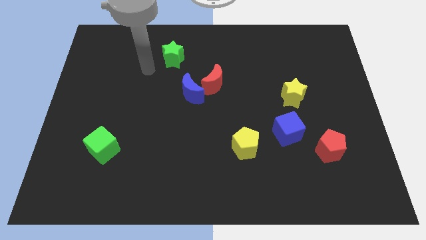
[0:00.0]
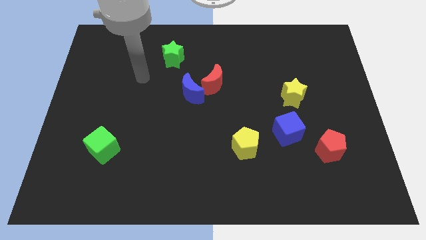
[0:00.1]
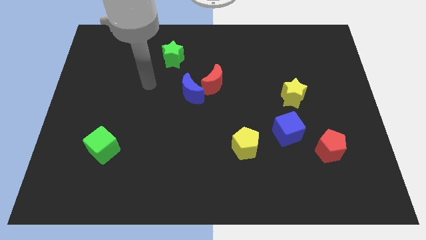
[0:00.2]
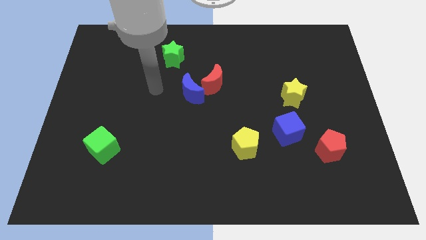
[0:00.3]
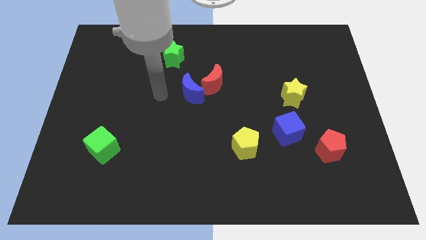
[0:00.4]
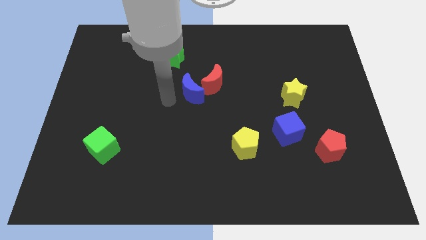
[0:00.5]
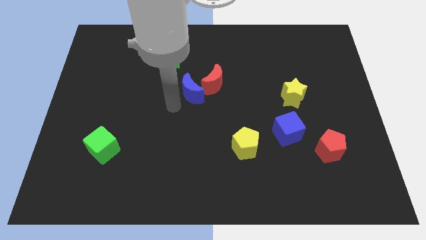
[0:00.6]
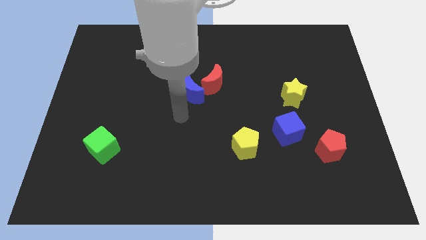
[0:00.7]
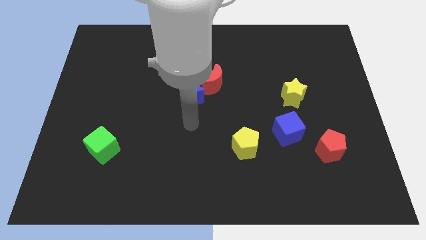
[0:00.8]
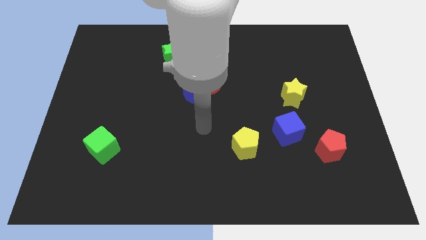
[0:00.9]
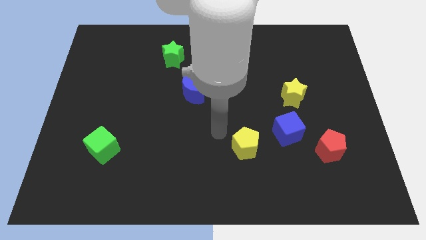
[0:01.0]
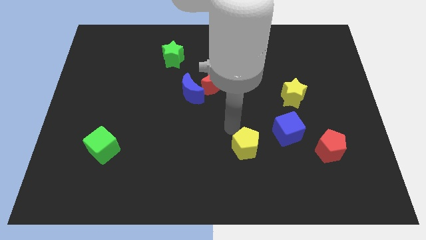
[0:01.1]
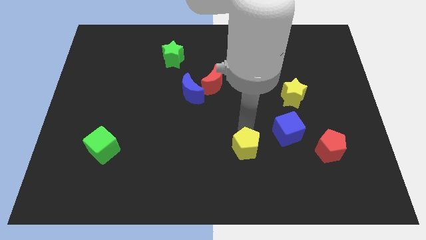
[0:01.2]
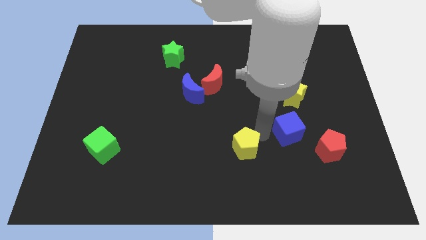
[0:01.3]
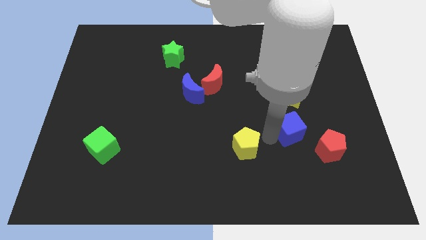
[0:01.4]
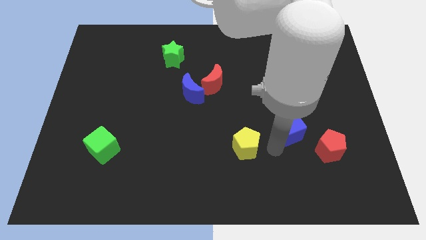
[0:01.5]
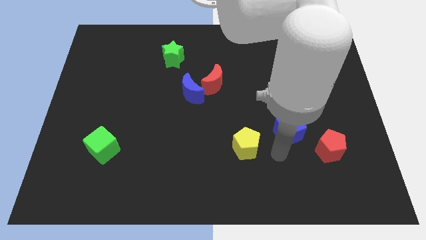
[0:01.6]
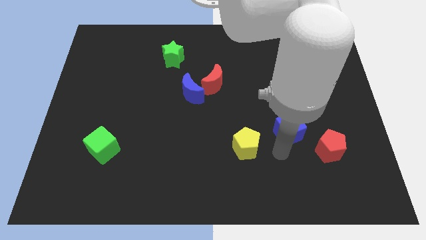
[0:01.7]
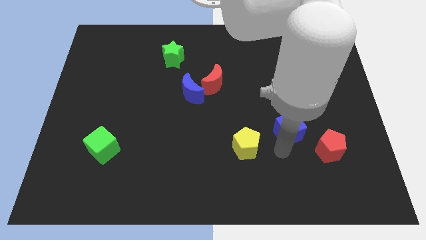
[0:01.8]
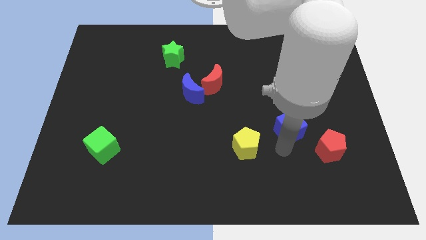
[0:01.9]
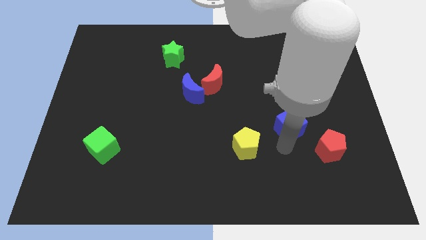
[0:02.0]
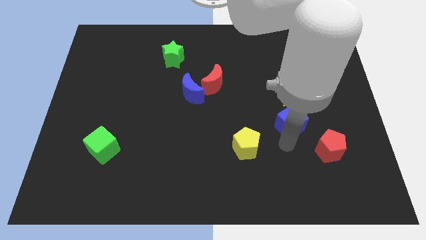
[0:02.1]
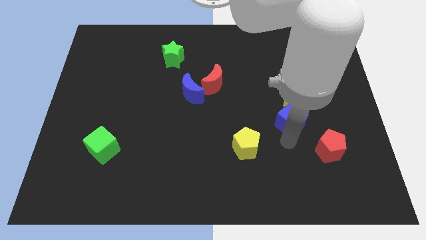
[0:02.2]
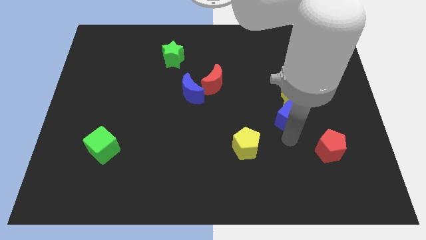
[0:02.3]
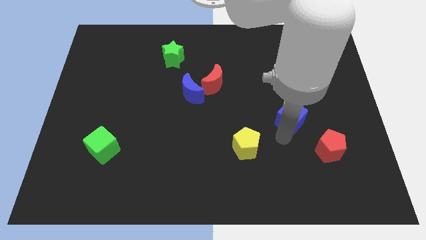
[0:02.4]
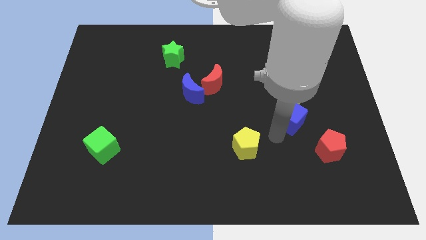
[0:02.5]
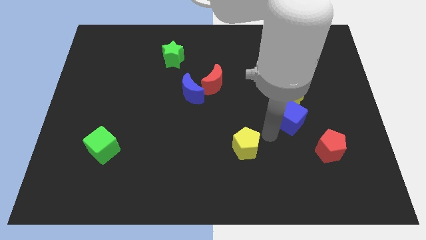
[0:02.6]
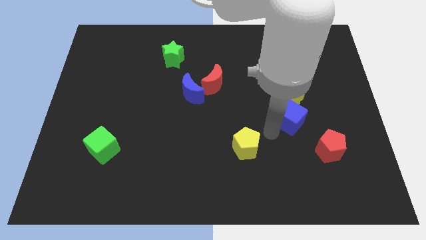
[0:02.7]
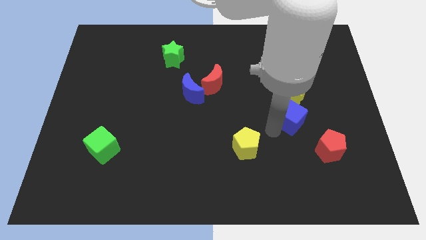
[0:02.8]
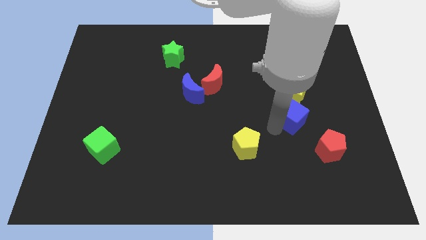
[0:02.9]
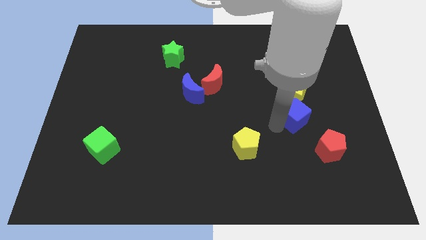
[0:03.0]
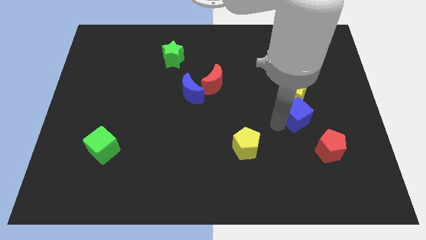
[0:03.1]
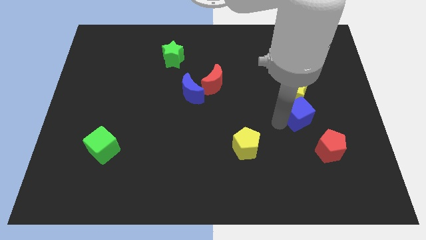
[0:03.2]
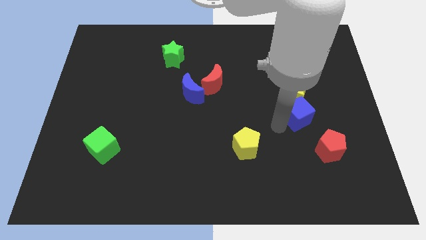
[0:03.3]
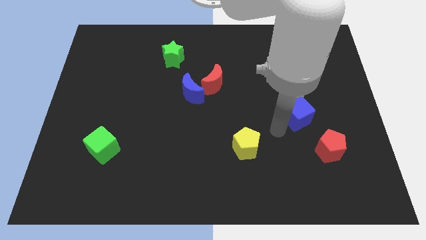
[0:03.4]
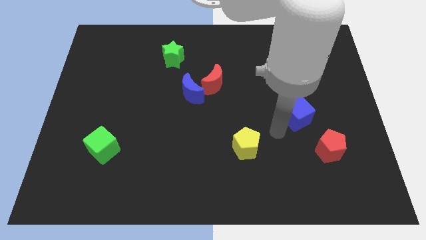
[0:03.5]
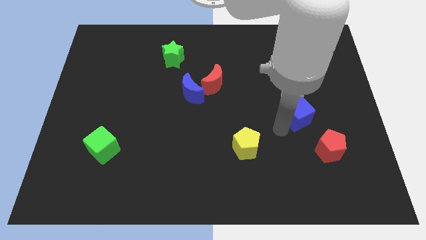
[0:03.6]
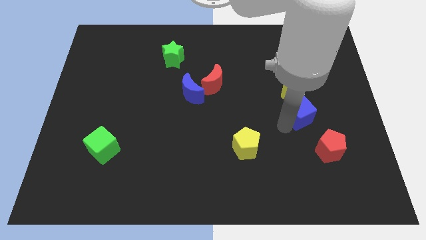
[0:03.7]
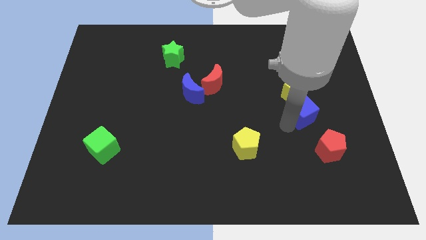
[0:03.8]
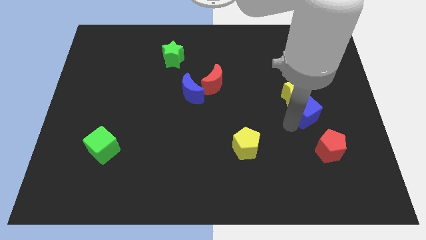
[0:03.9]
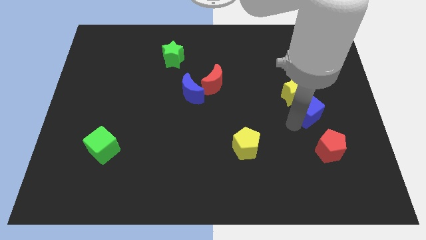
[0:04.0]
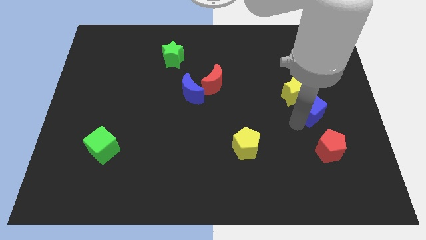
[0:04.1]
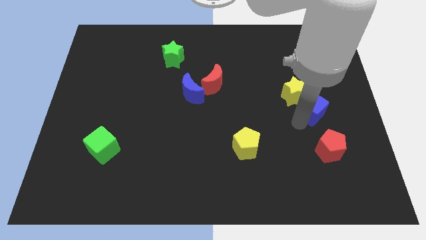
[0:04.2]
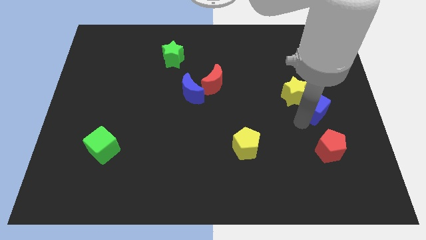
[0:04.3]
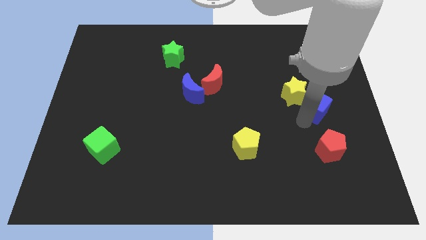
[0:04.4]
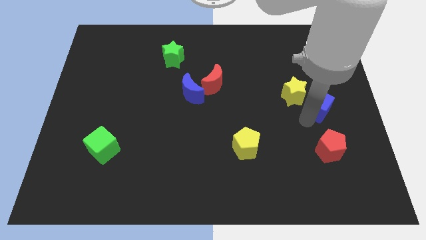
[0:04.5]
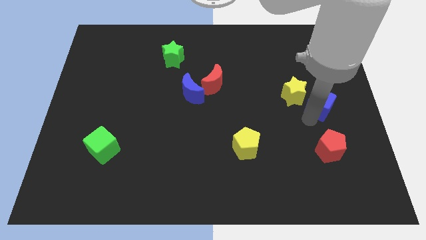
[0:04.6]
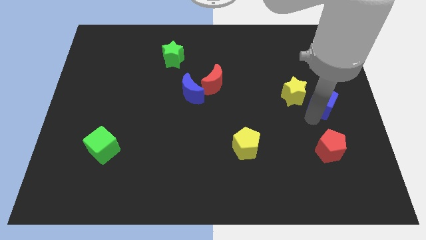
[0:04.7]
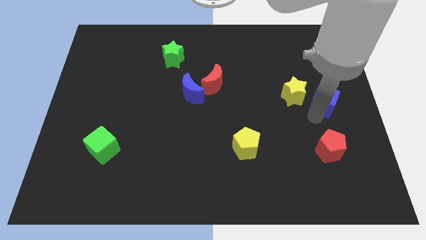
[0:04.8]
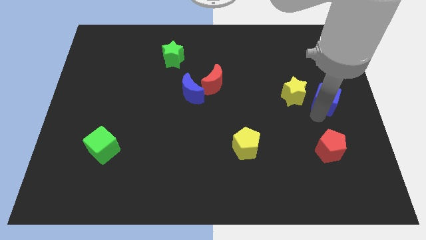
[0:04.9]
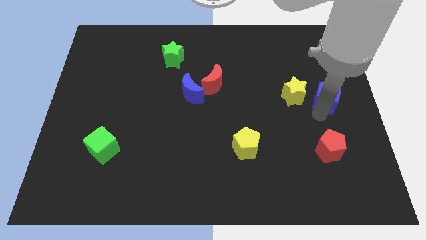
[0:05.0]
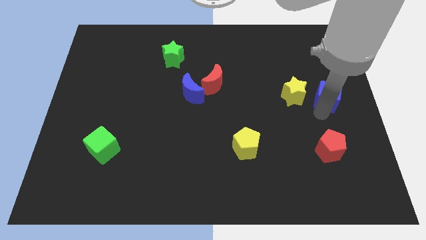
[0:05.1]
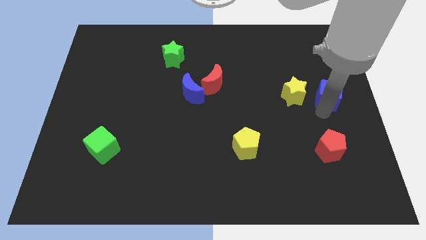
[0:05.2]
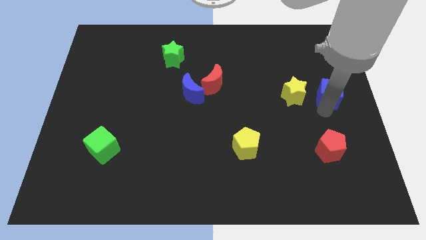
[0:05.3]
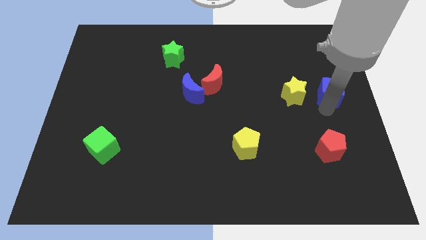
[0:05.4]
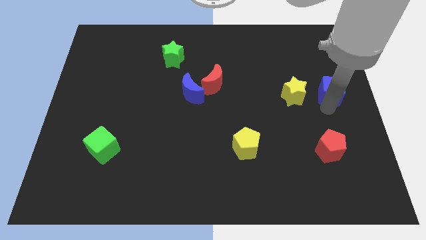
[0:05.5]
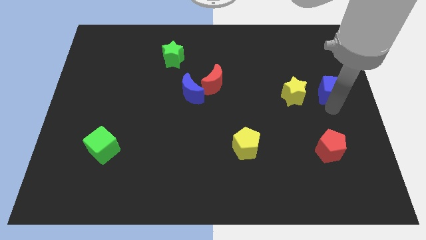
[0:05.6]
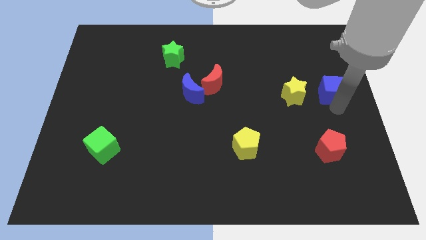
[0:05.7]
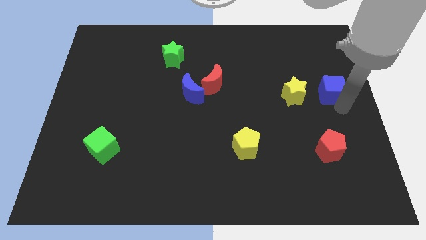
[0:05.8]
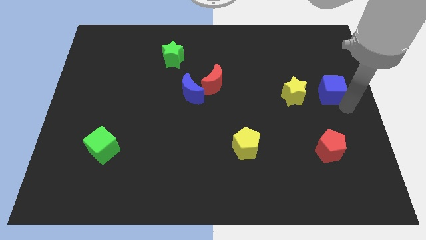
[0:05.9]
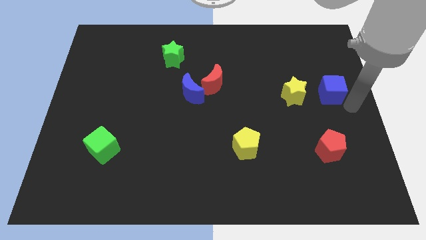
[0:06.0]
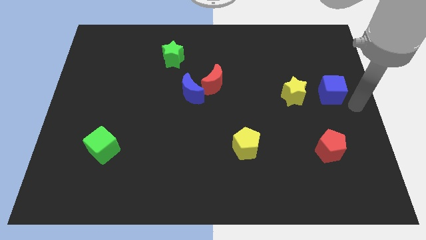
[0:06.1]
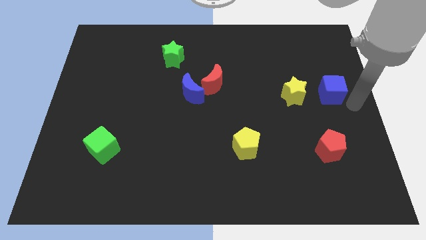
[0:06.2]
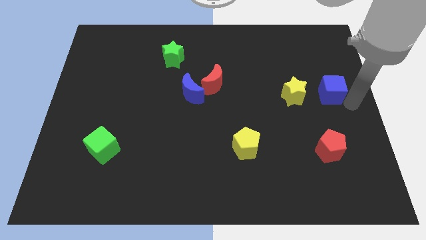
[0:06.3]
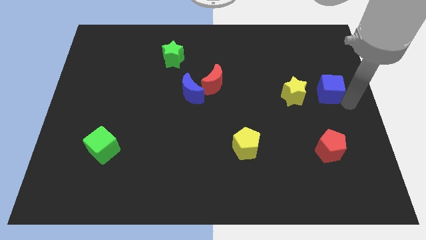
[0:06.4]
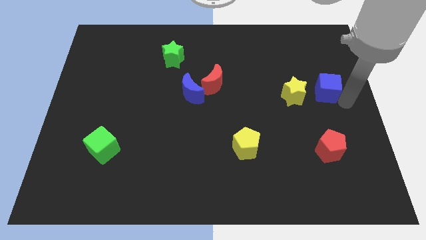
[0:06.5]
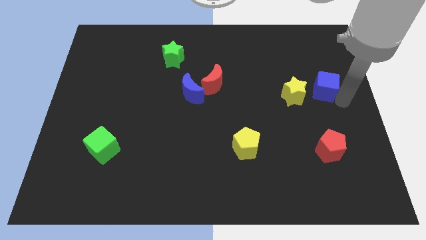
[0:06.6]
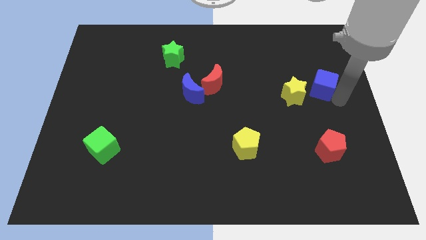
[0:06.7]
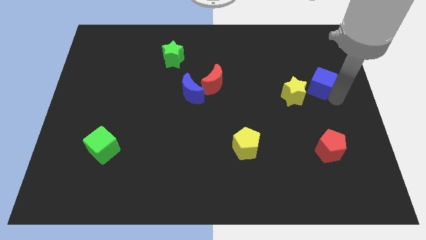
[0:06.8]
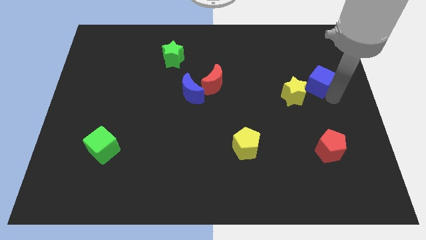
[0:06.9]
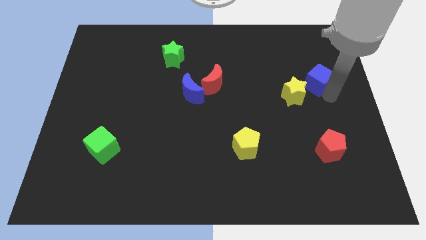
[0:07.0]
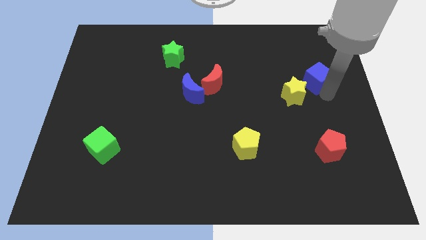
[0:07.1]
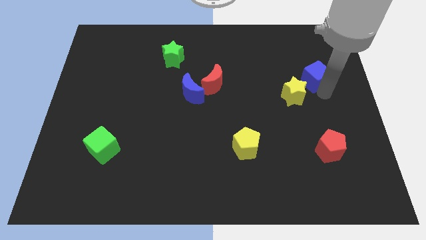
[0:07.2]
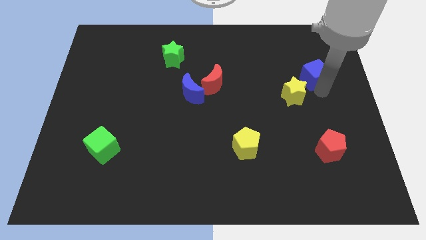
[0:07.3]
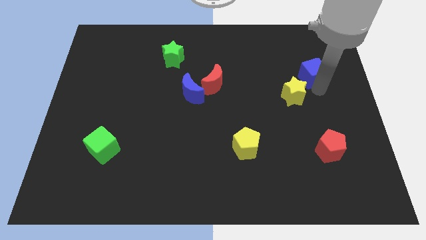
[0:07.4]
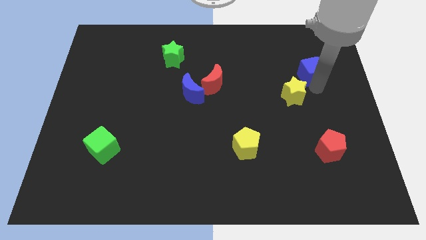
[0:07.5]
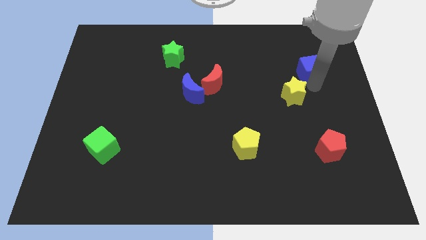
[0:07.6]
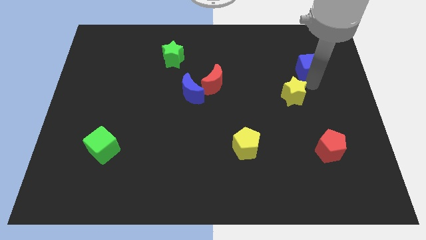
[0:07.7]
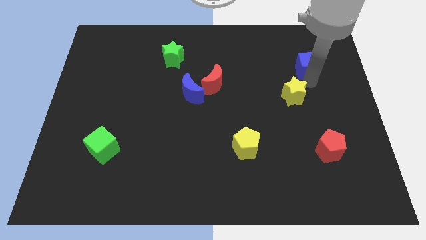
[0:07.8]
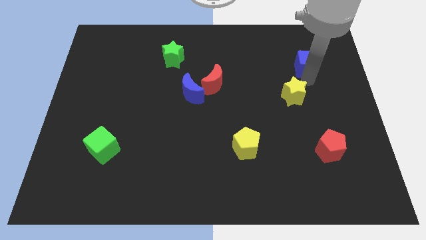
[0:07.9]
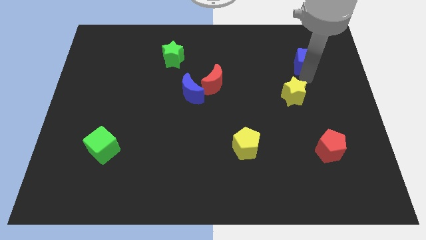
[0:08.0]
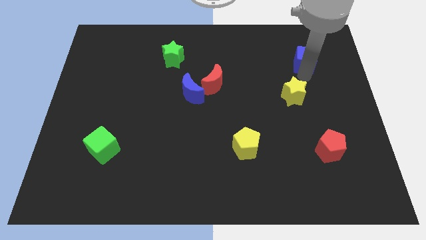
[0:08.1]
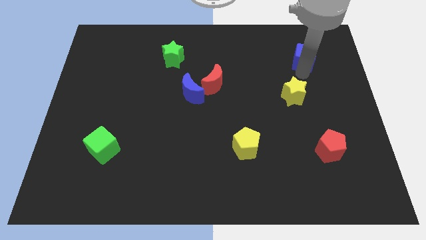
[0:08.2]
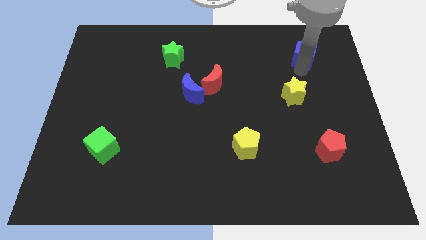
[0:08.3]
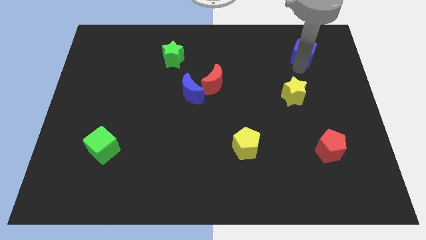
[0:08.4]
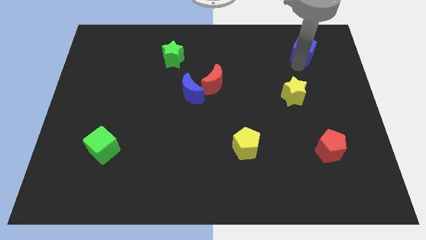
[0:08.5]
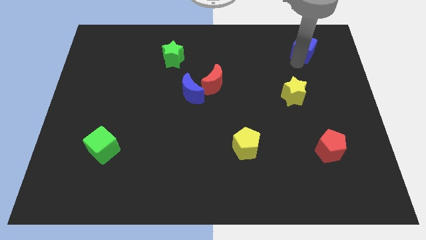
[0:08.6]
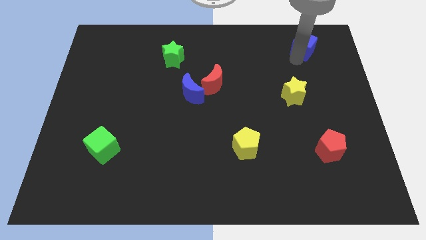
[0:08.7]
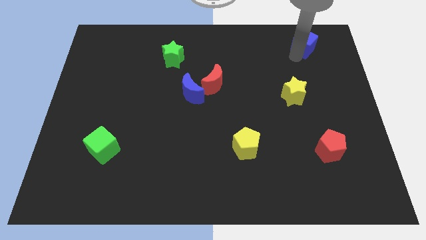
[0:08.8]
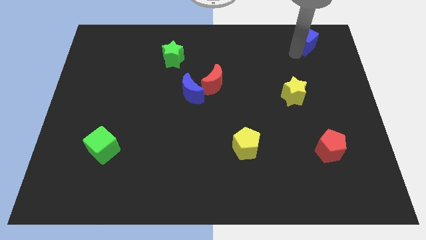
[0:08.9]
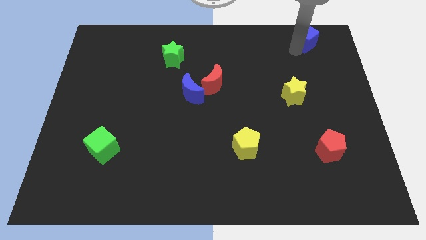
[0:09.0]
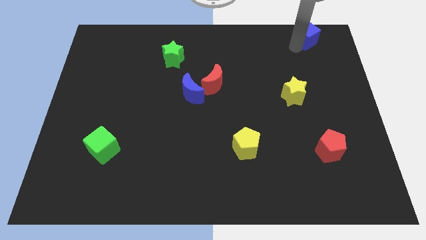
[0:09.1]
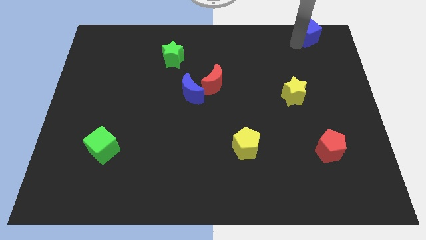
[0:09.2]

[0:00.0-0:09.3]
put the blue cube to the top right corner
